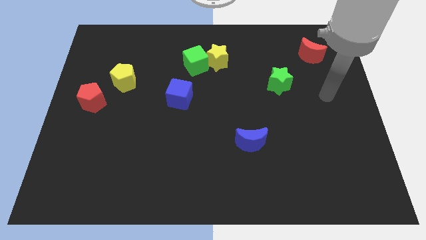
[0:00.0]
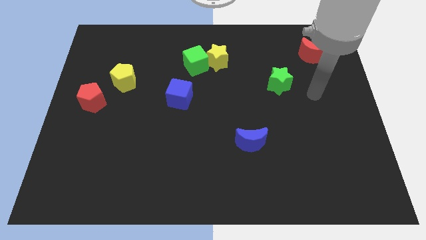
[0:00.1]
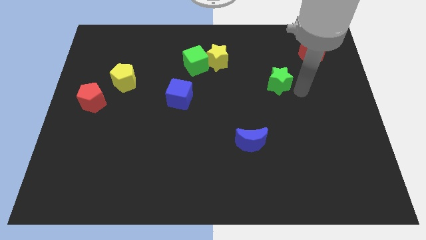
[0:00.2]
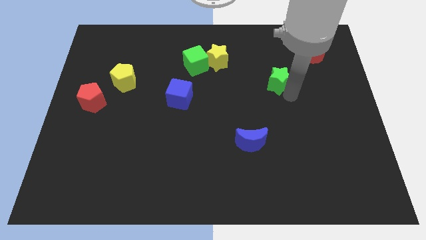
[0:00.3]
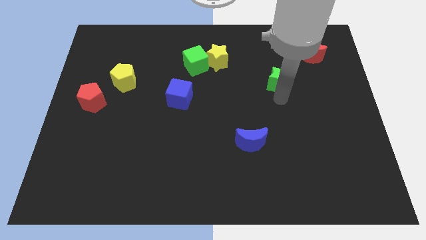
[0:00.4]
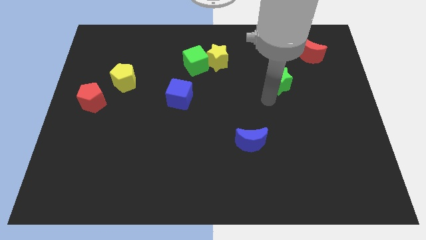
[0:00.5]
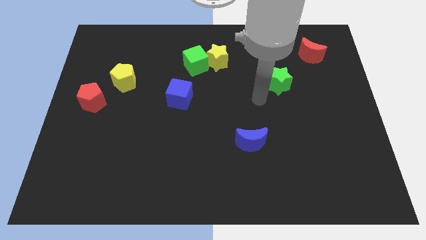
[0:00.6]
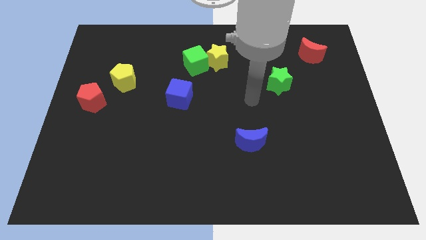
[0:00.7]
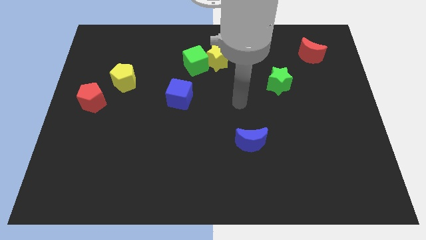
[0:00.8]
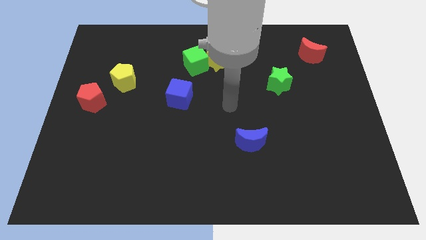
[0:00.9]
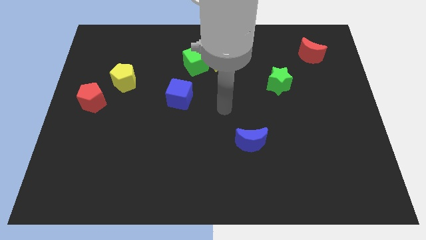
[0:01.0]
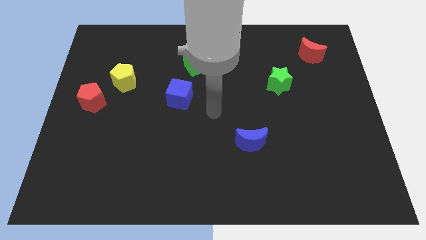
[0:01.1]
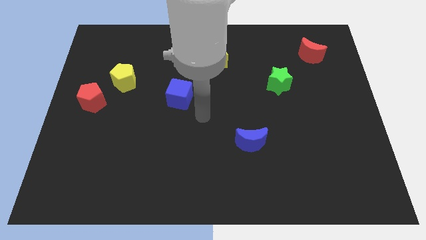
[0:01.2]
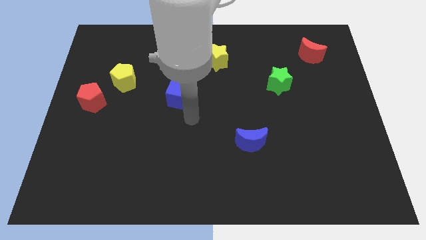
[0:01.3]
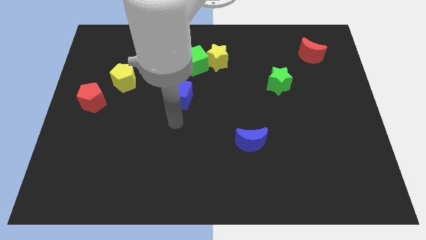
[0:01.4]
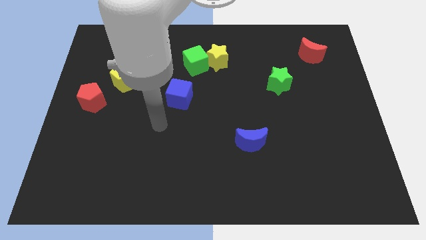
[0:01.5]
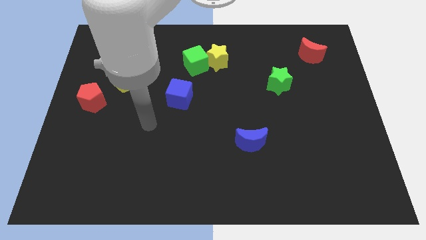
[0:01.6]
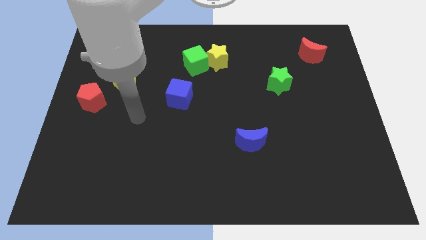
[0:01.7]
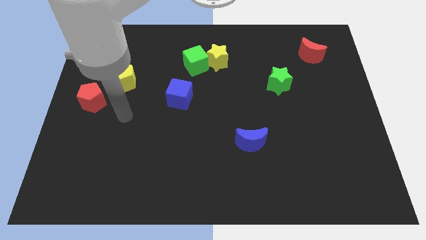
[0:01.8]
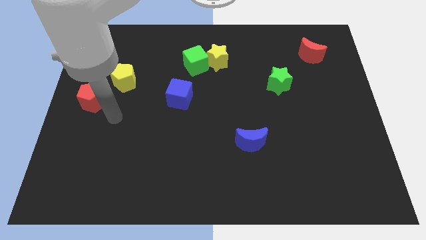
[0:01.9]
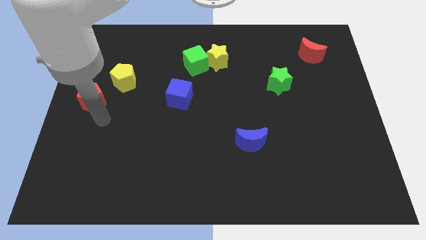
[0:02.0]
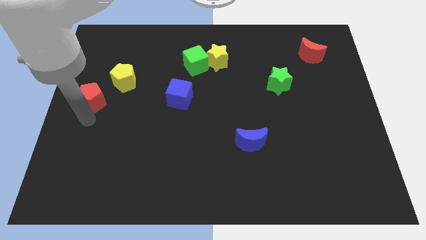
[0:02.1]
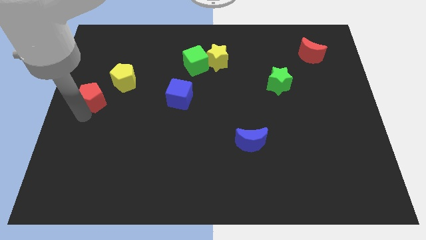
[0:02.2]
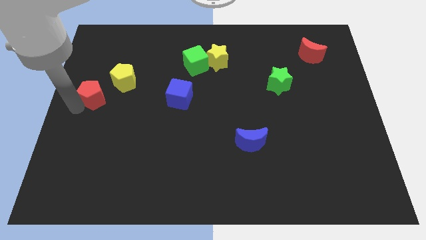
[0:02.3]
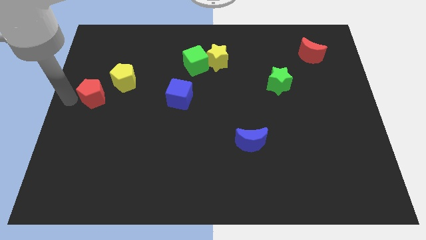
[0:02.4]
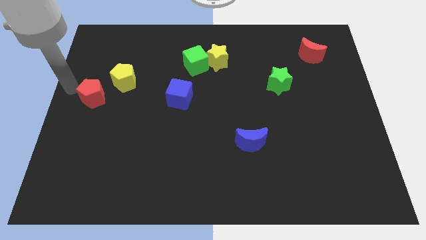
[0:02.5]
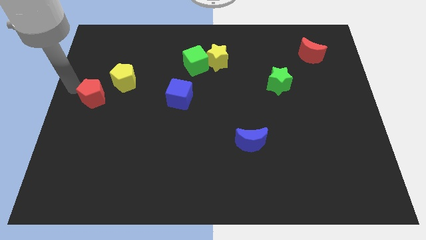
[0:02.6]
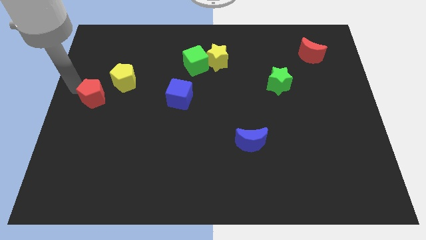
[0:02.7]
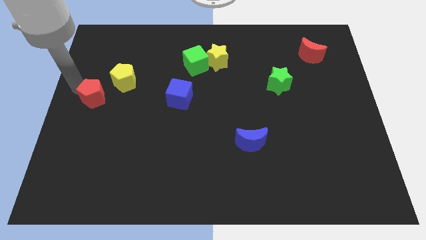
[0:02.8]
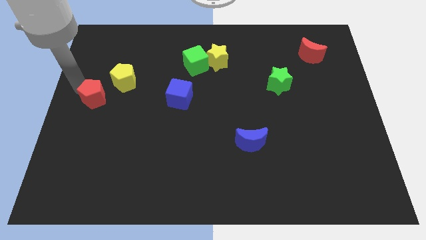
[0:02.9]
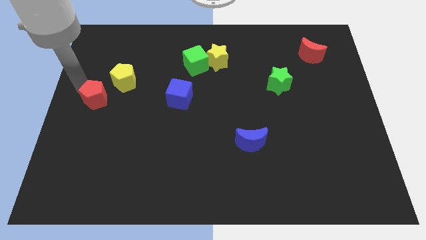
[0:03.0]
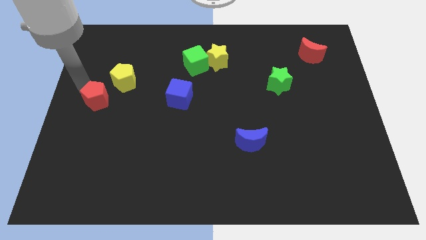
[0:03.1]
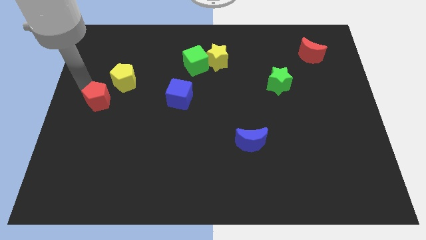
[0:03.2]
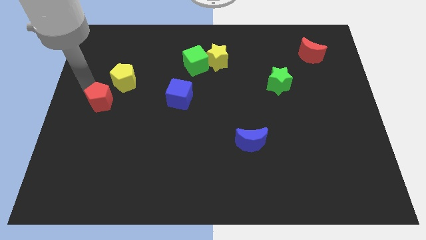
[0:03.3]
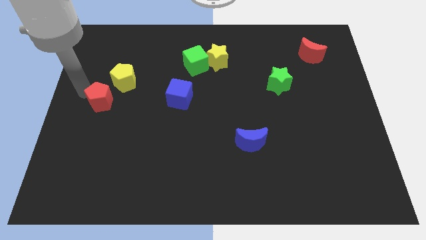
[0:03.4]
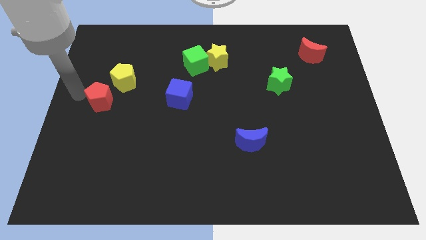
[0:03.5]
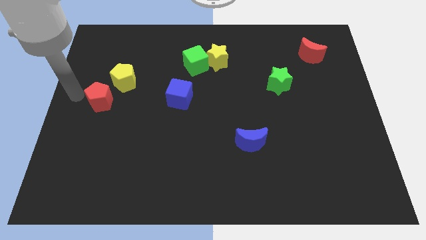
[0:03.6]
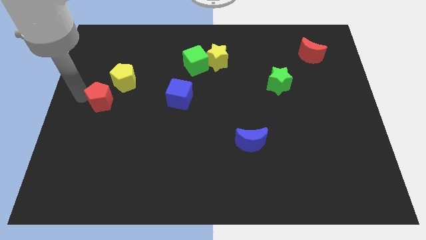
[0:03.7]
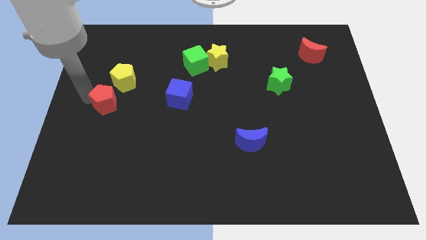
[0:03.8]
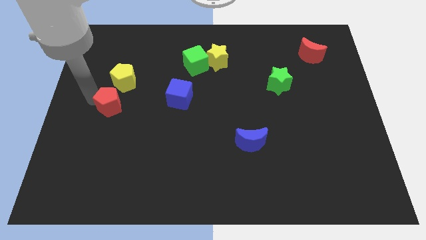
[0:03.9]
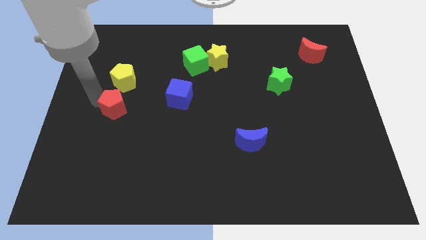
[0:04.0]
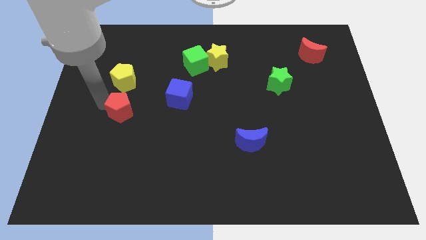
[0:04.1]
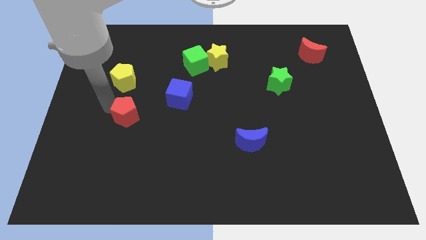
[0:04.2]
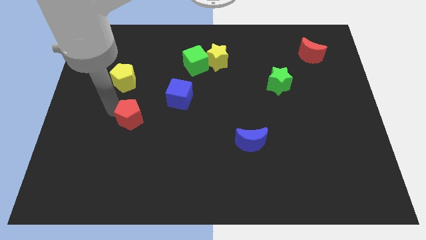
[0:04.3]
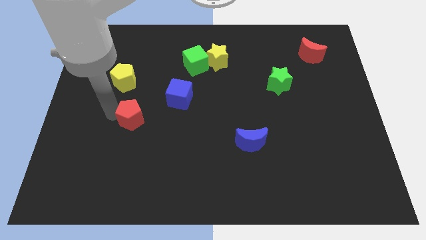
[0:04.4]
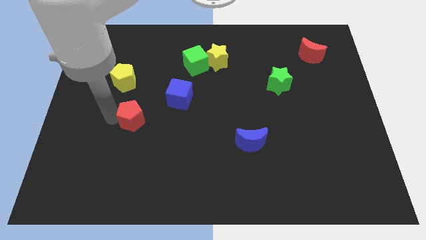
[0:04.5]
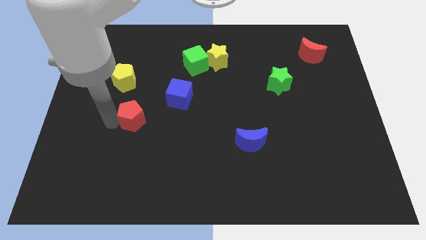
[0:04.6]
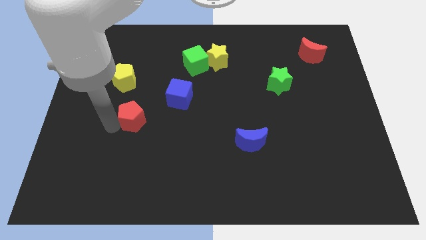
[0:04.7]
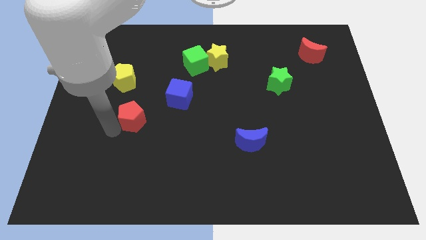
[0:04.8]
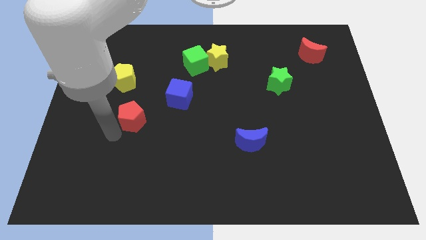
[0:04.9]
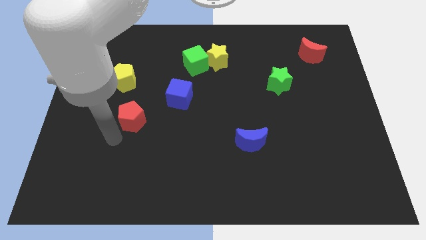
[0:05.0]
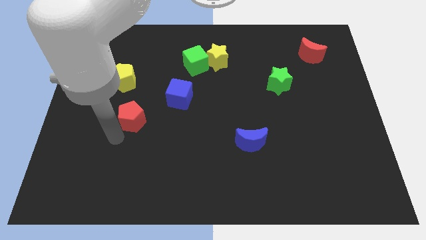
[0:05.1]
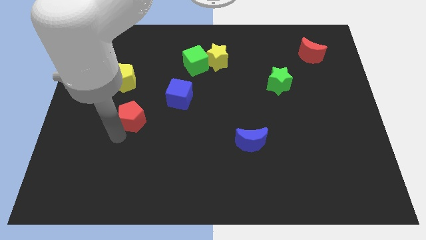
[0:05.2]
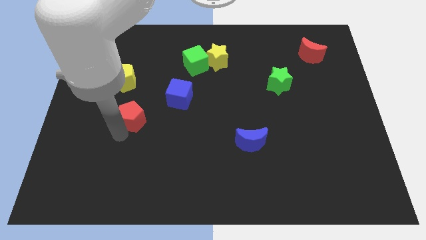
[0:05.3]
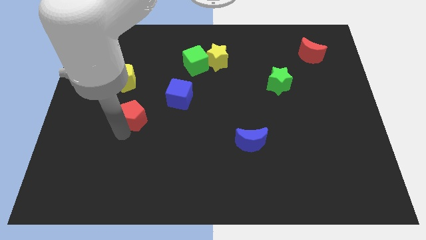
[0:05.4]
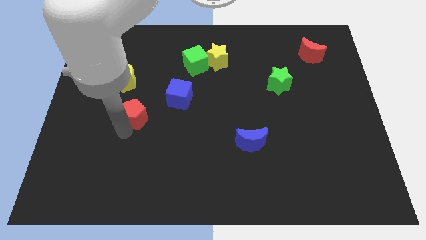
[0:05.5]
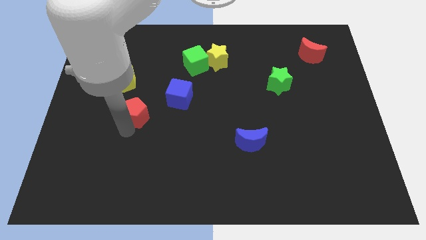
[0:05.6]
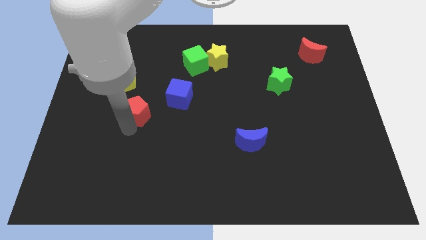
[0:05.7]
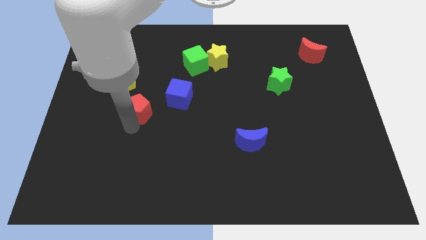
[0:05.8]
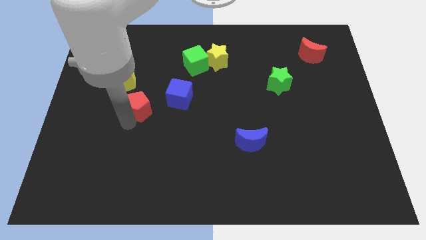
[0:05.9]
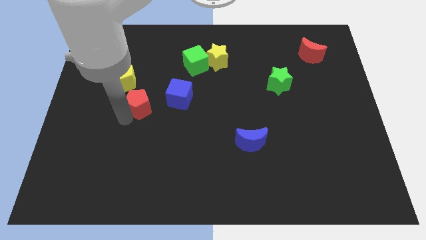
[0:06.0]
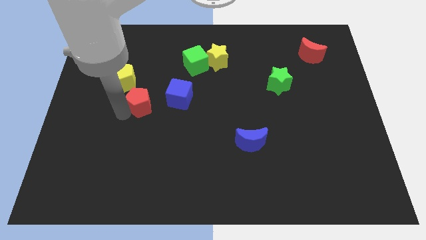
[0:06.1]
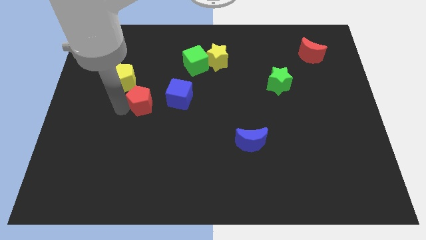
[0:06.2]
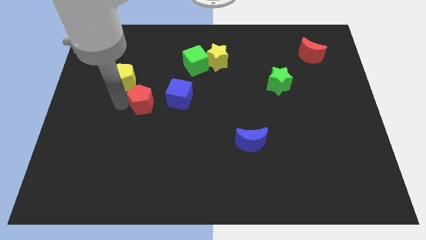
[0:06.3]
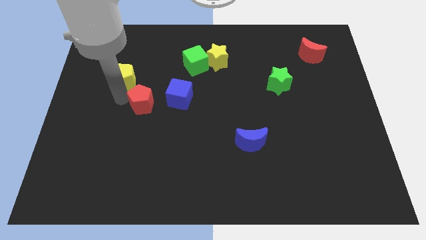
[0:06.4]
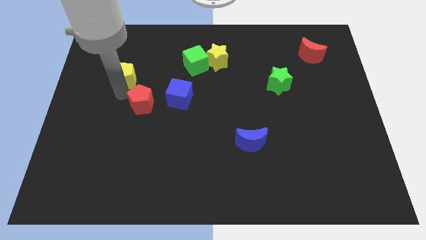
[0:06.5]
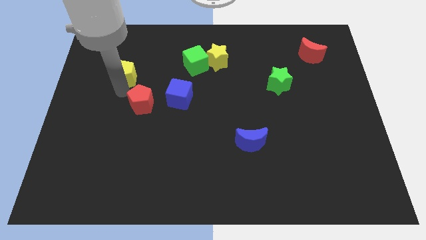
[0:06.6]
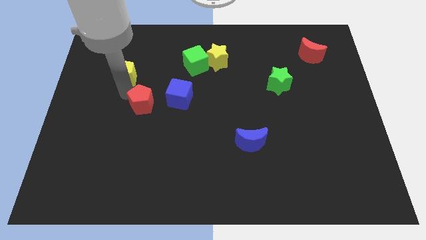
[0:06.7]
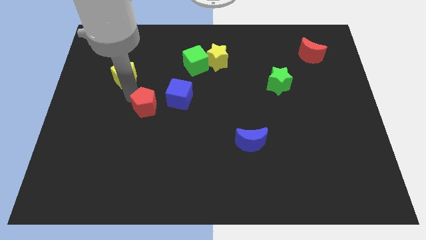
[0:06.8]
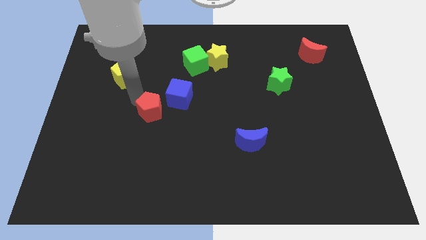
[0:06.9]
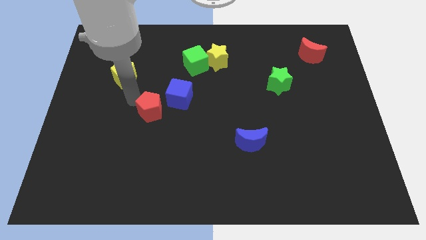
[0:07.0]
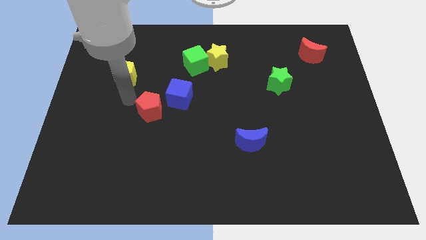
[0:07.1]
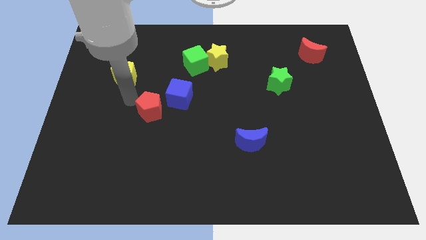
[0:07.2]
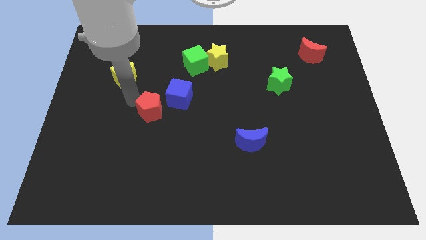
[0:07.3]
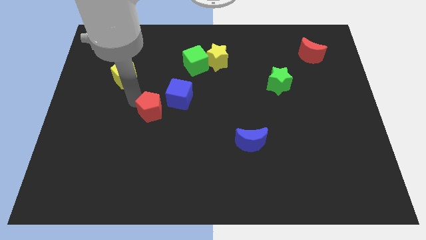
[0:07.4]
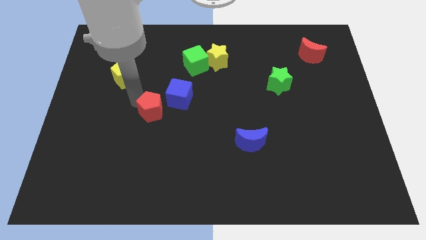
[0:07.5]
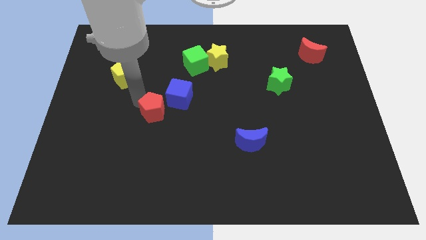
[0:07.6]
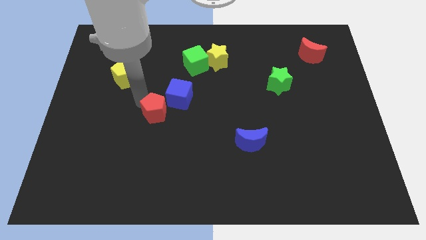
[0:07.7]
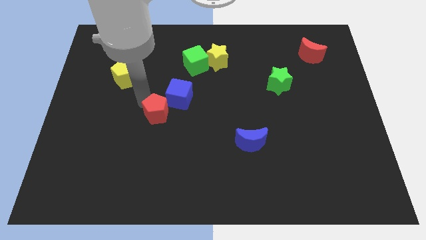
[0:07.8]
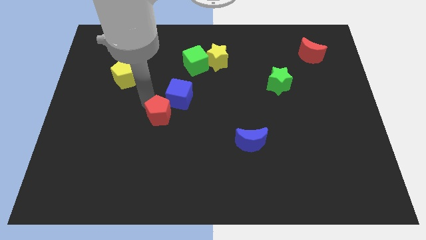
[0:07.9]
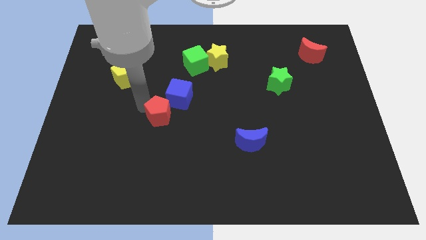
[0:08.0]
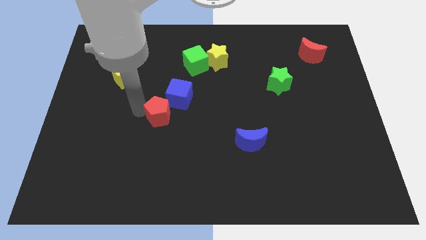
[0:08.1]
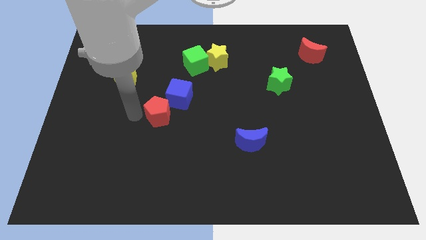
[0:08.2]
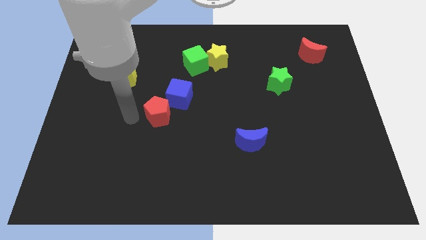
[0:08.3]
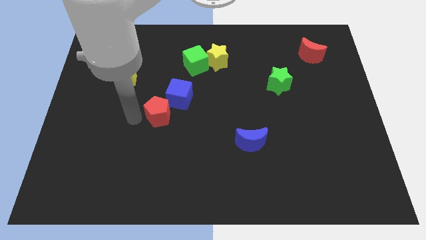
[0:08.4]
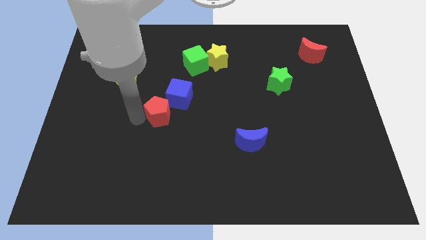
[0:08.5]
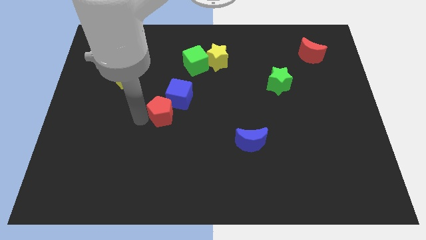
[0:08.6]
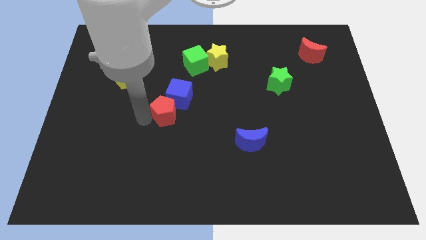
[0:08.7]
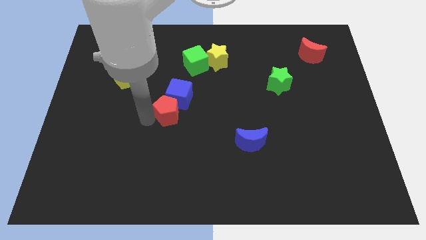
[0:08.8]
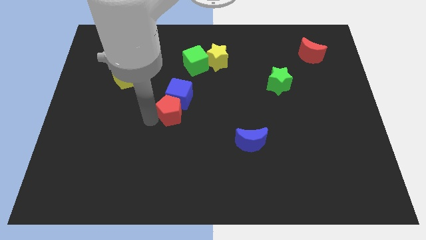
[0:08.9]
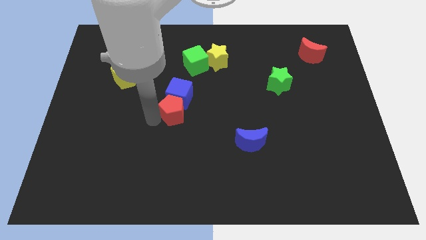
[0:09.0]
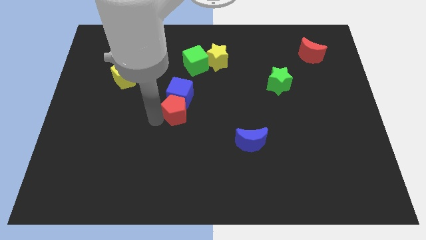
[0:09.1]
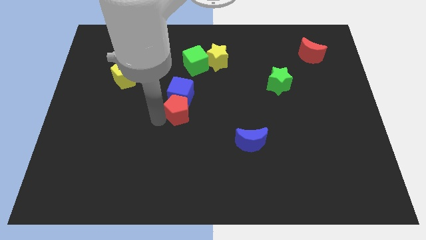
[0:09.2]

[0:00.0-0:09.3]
move the red pentagon right
